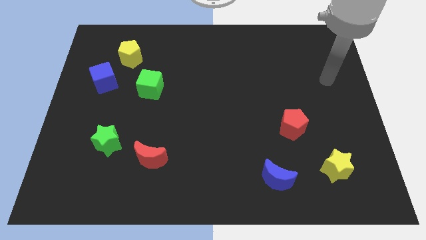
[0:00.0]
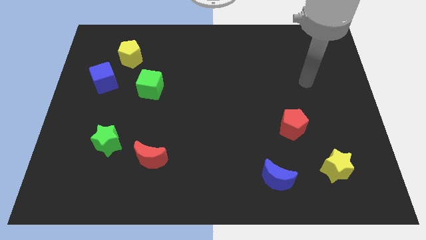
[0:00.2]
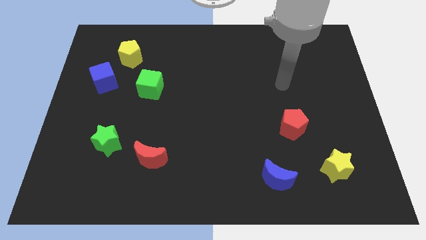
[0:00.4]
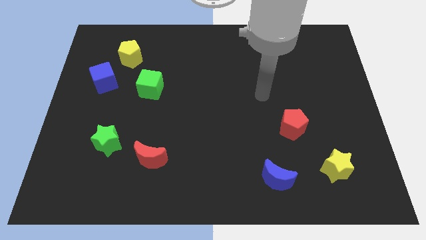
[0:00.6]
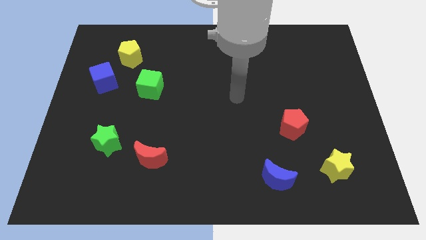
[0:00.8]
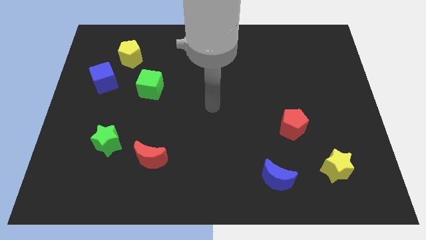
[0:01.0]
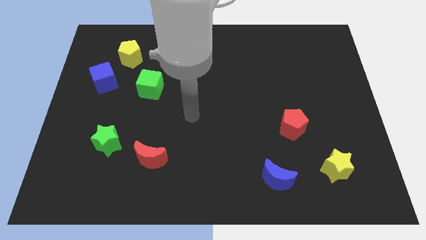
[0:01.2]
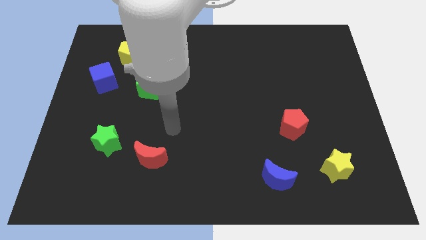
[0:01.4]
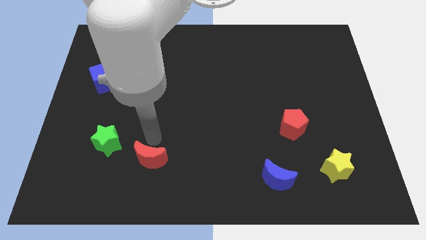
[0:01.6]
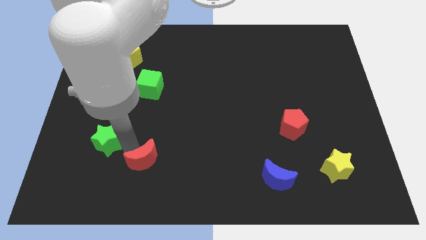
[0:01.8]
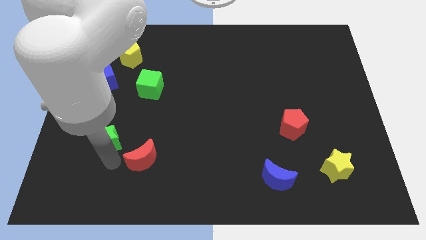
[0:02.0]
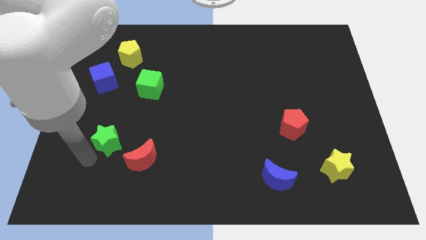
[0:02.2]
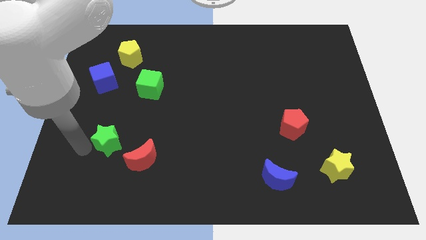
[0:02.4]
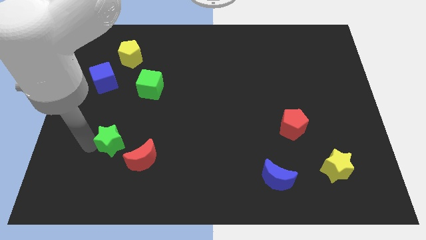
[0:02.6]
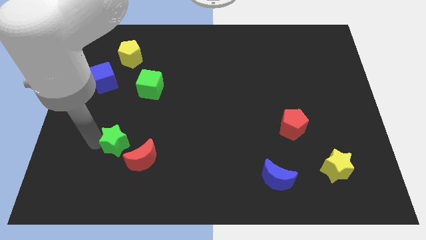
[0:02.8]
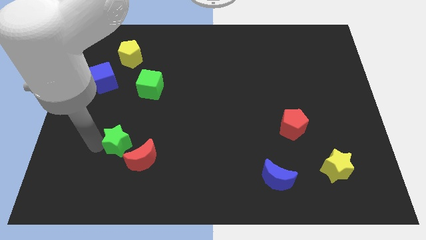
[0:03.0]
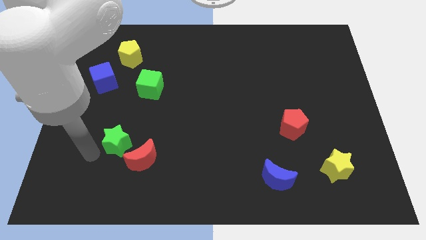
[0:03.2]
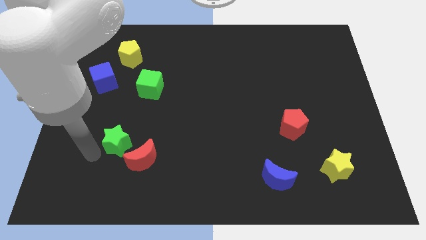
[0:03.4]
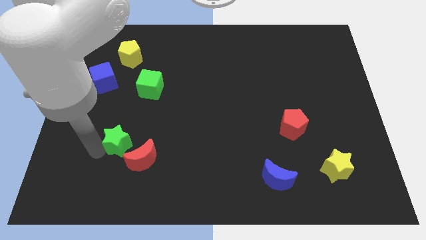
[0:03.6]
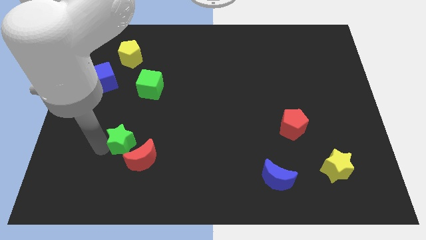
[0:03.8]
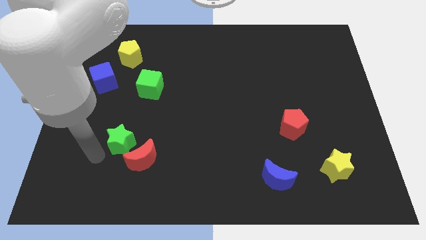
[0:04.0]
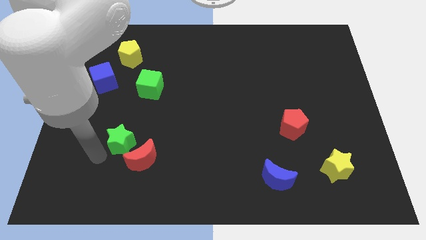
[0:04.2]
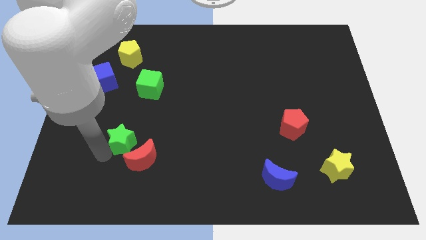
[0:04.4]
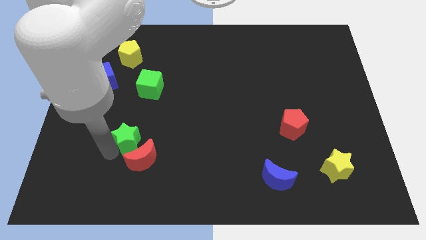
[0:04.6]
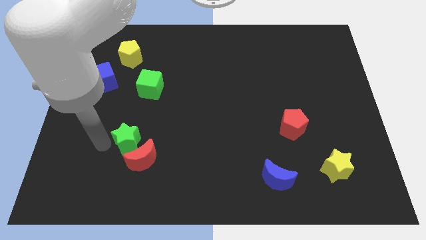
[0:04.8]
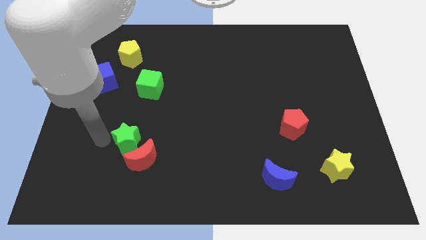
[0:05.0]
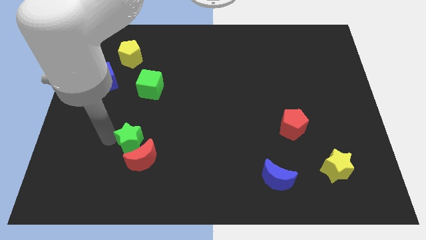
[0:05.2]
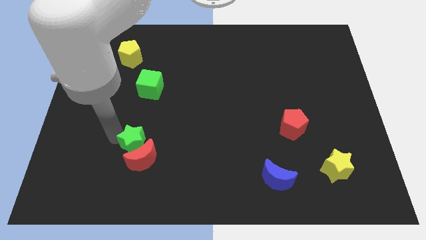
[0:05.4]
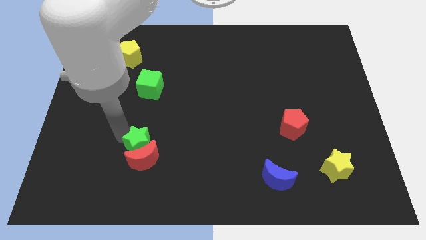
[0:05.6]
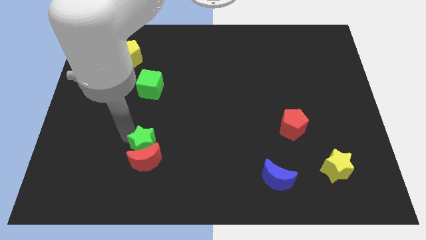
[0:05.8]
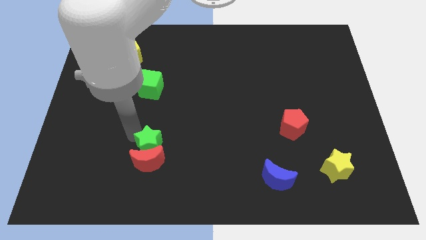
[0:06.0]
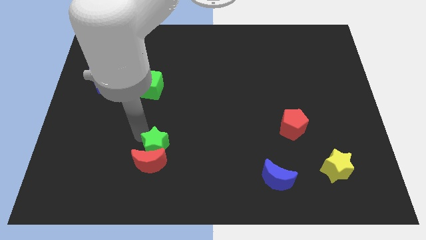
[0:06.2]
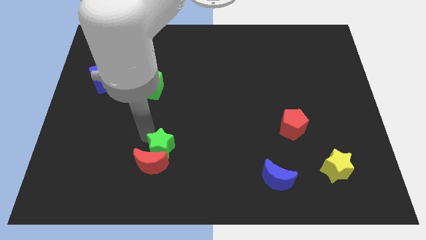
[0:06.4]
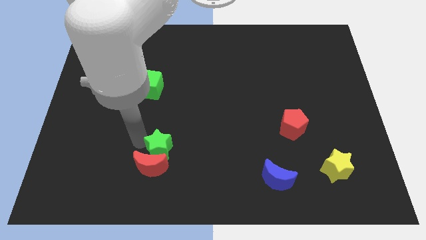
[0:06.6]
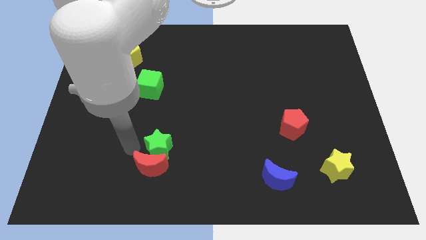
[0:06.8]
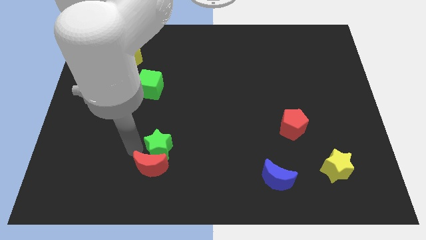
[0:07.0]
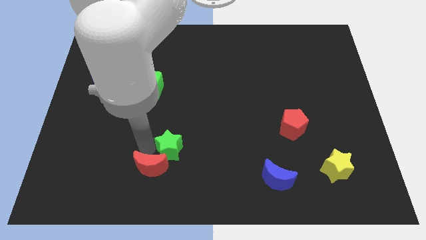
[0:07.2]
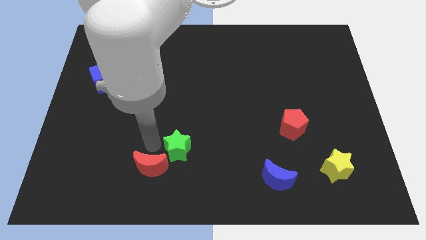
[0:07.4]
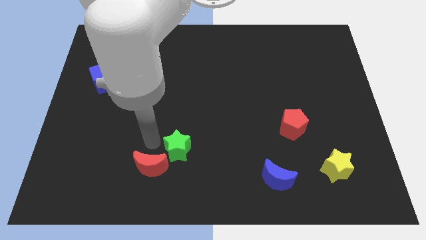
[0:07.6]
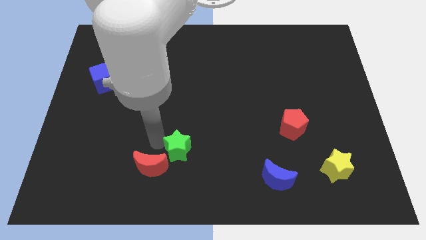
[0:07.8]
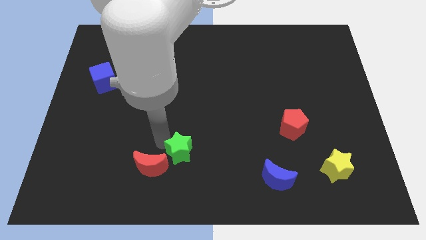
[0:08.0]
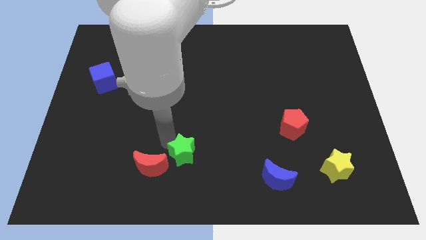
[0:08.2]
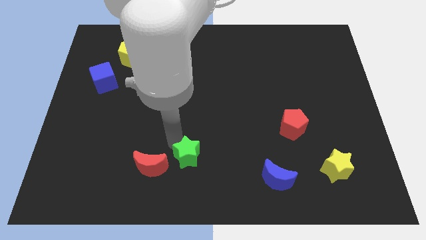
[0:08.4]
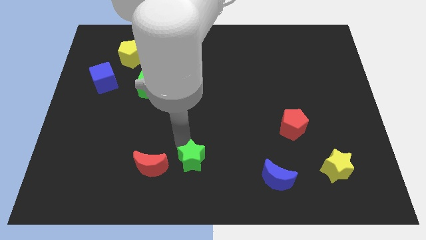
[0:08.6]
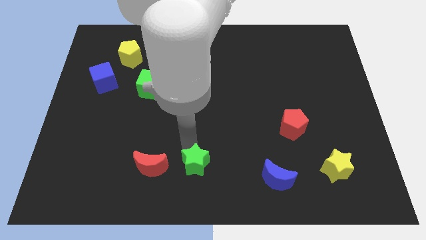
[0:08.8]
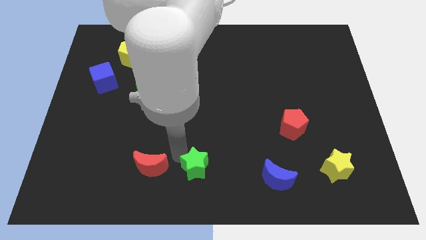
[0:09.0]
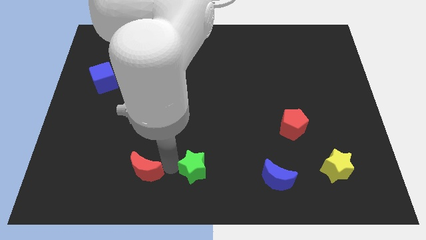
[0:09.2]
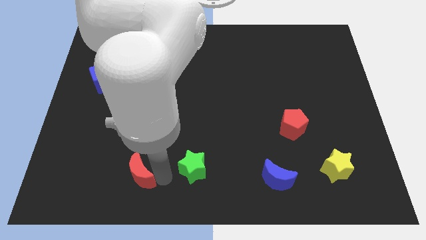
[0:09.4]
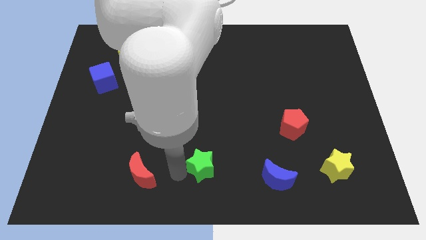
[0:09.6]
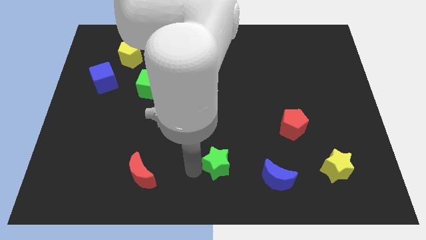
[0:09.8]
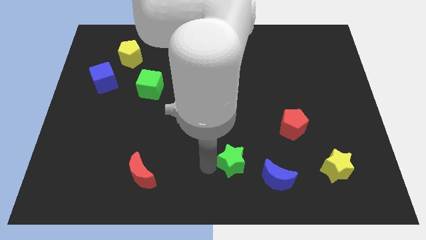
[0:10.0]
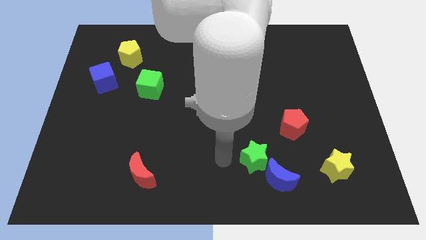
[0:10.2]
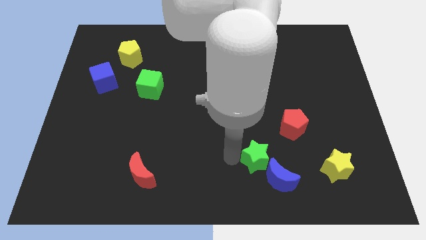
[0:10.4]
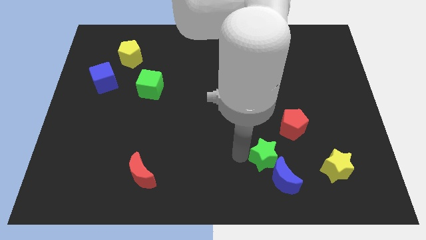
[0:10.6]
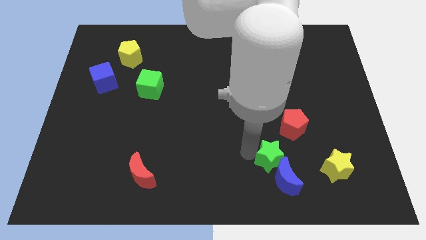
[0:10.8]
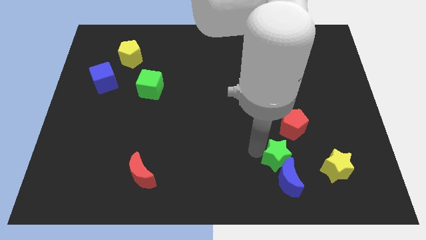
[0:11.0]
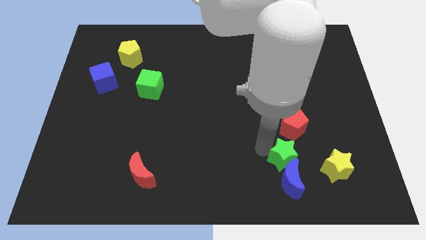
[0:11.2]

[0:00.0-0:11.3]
push the green star to the top right side of the blue moon

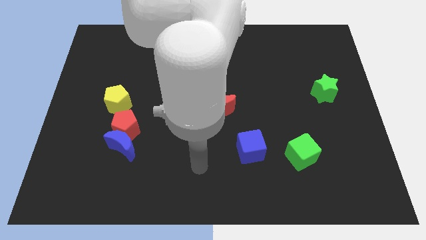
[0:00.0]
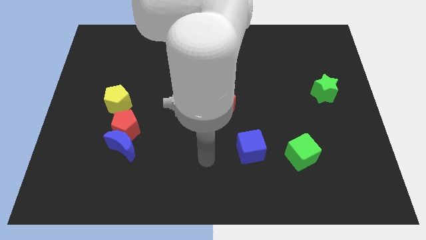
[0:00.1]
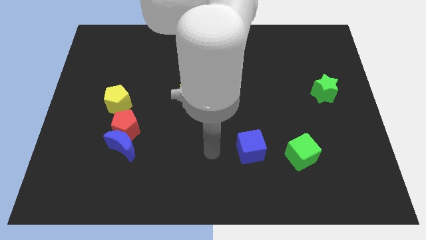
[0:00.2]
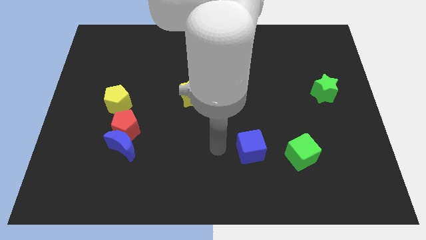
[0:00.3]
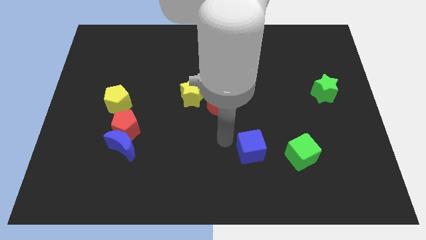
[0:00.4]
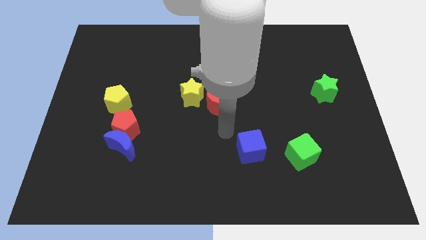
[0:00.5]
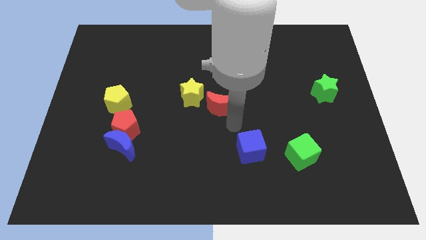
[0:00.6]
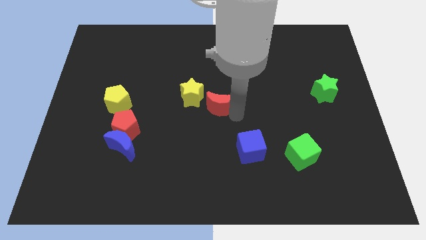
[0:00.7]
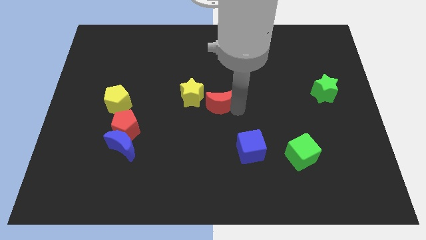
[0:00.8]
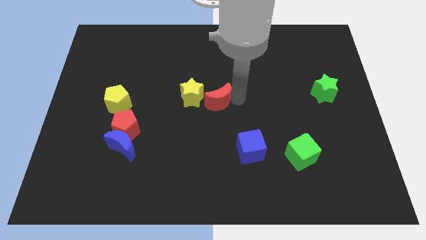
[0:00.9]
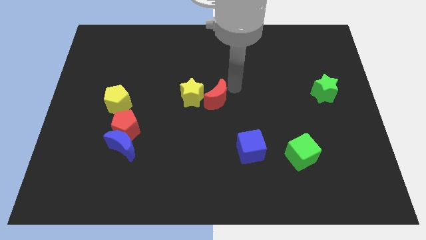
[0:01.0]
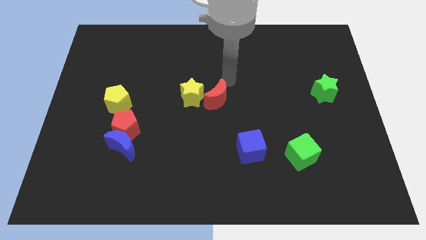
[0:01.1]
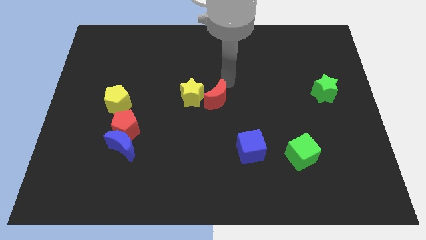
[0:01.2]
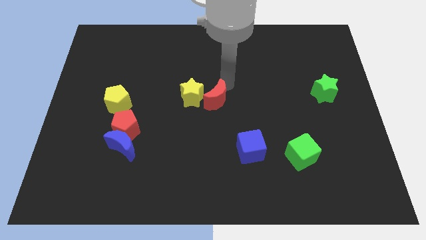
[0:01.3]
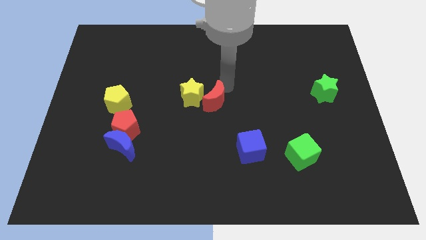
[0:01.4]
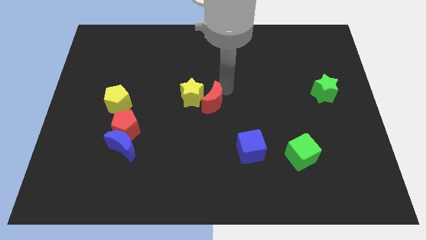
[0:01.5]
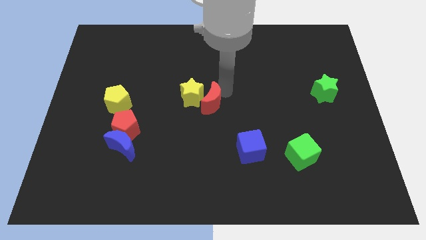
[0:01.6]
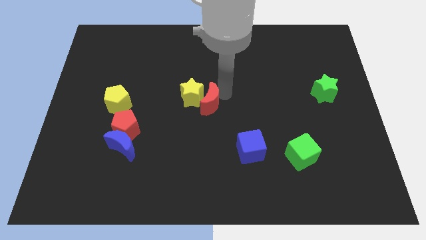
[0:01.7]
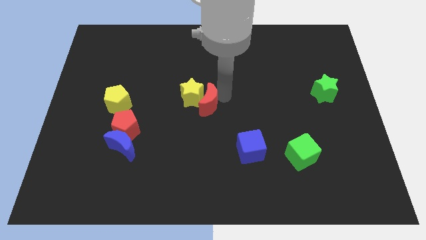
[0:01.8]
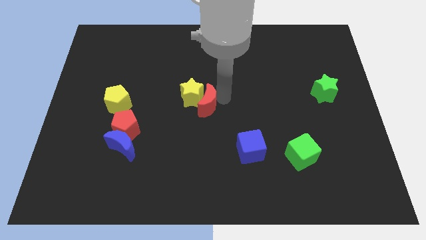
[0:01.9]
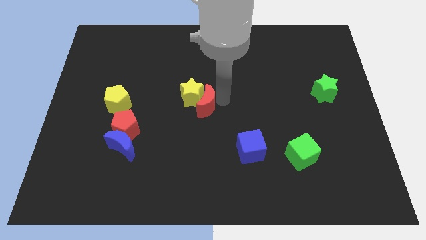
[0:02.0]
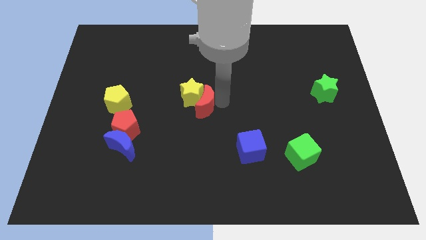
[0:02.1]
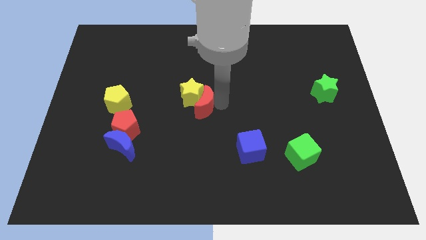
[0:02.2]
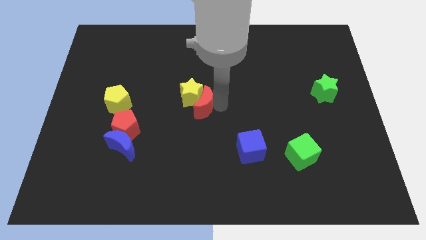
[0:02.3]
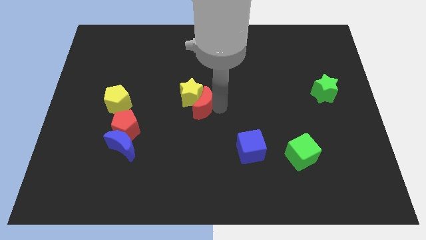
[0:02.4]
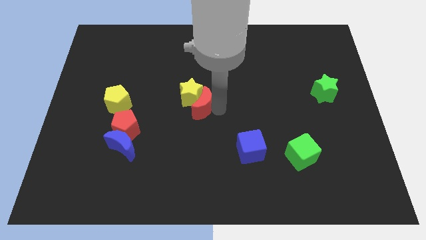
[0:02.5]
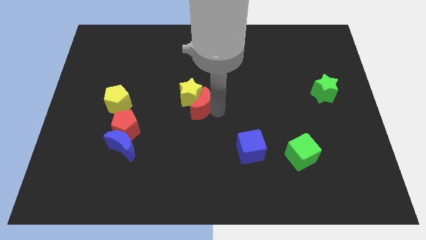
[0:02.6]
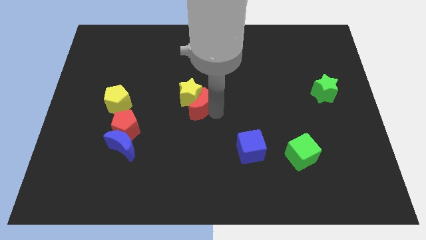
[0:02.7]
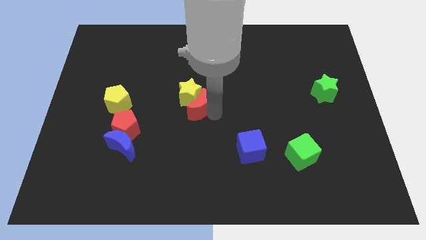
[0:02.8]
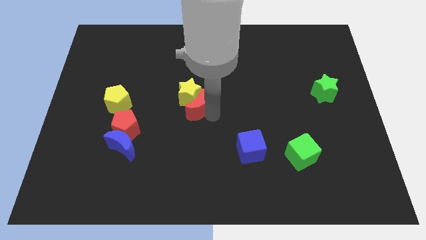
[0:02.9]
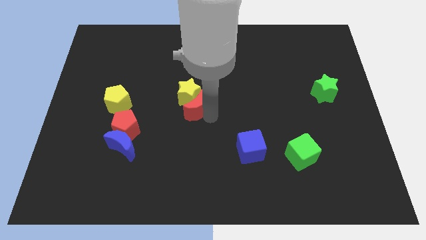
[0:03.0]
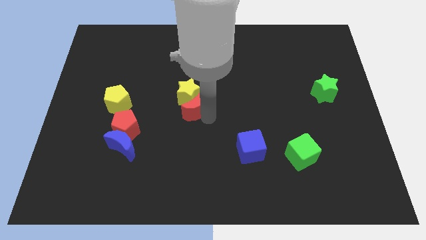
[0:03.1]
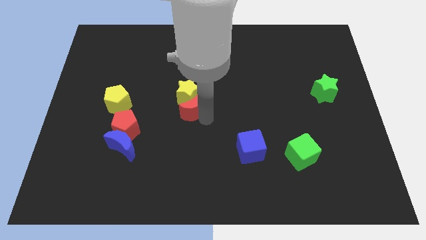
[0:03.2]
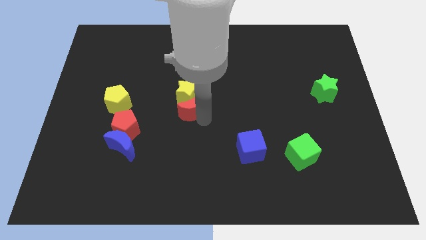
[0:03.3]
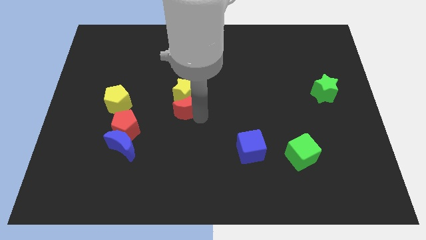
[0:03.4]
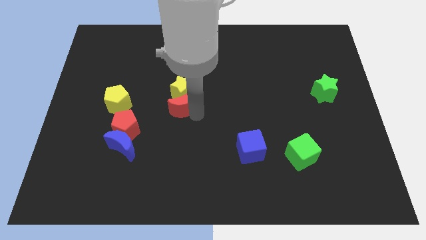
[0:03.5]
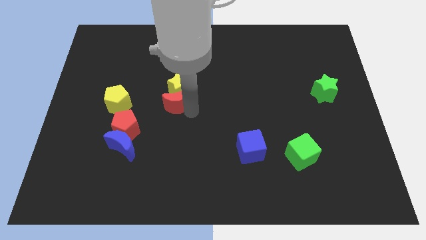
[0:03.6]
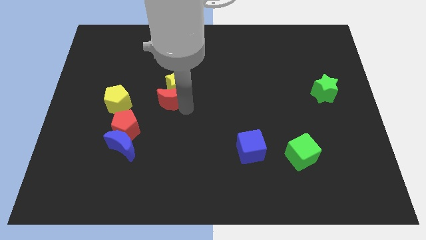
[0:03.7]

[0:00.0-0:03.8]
move the red moon to the top right of the red pentagon
